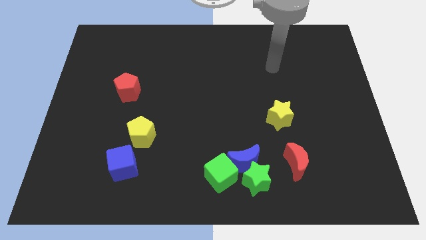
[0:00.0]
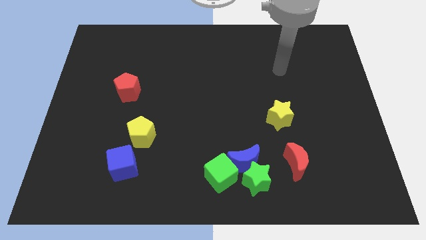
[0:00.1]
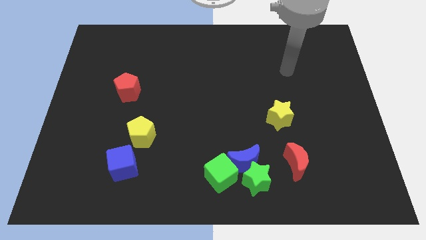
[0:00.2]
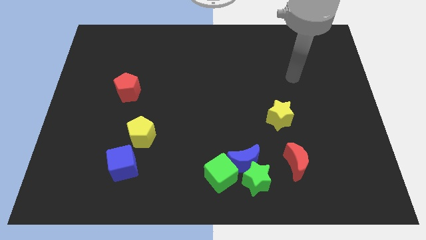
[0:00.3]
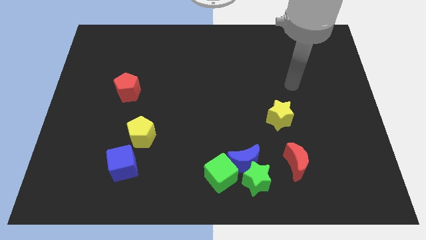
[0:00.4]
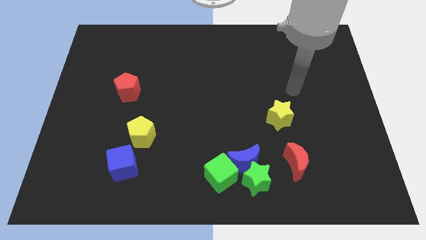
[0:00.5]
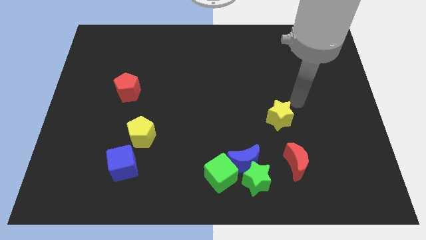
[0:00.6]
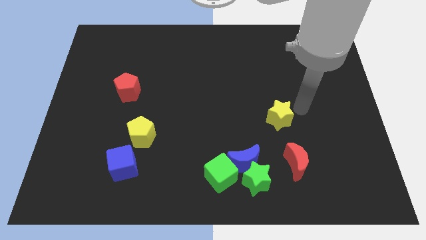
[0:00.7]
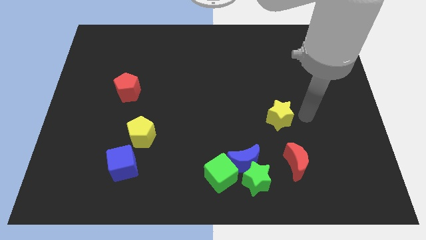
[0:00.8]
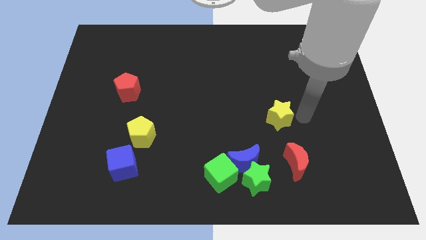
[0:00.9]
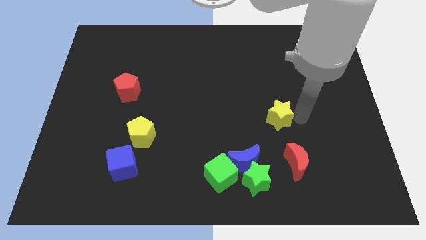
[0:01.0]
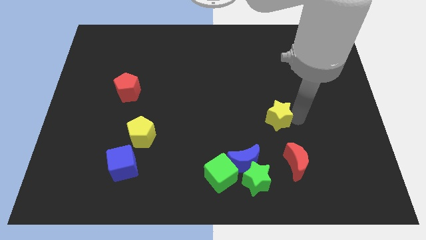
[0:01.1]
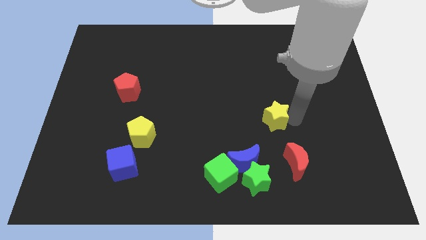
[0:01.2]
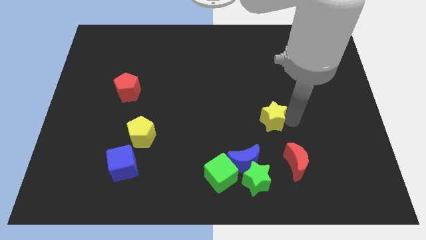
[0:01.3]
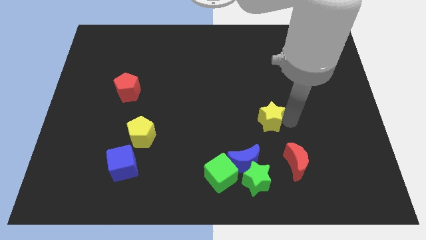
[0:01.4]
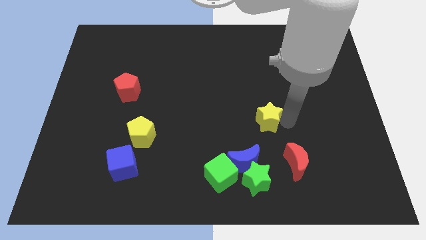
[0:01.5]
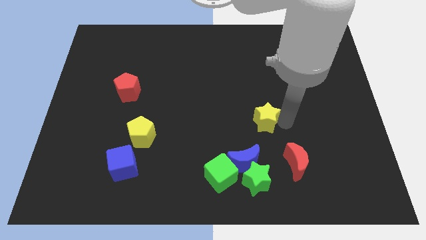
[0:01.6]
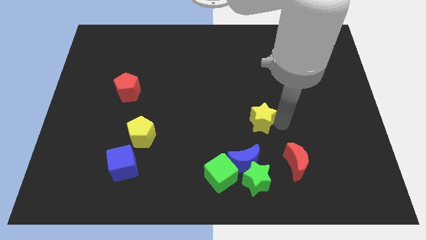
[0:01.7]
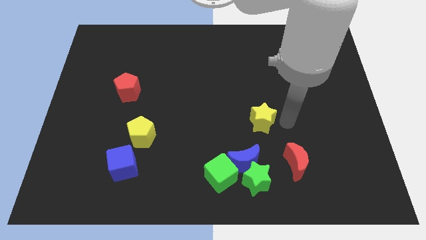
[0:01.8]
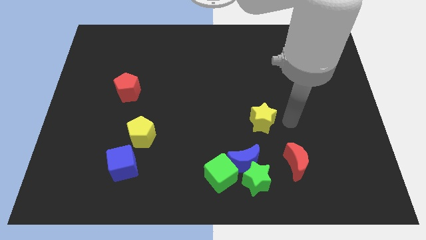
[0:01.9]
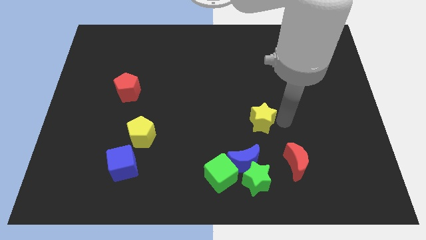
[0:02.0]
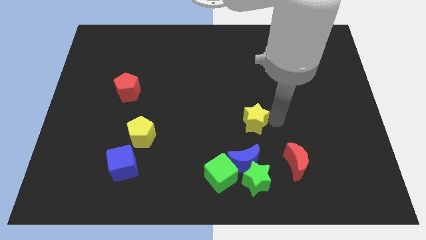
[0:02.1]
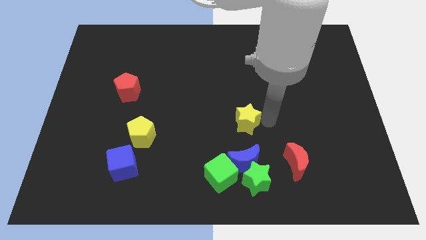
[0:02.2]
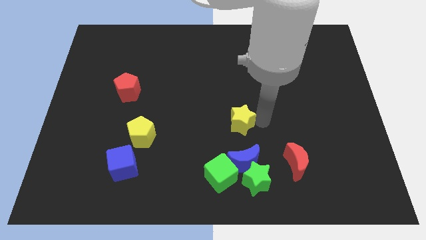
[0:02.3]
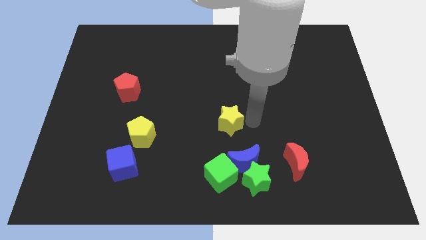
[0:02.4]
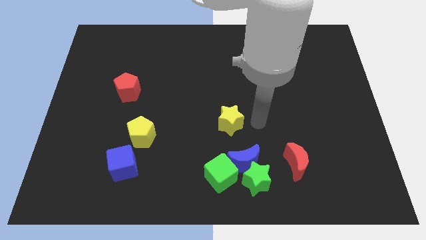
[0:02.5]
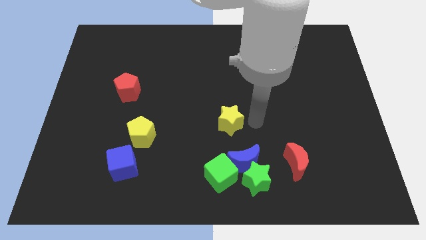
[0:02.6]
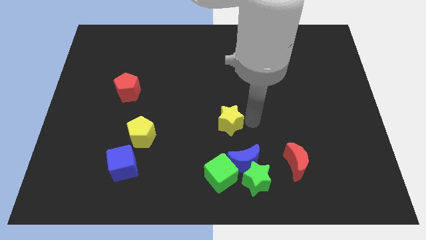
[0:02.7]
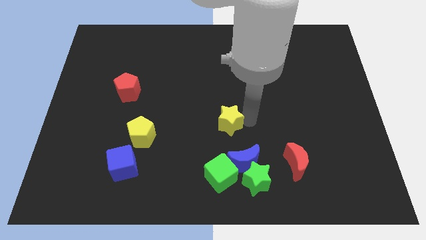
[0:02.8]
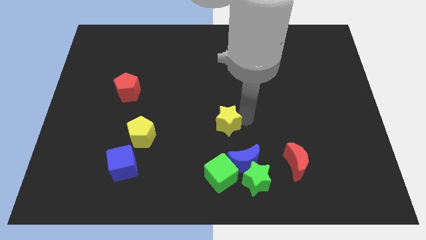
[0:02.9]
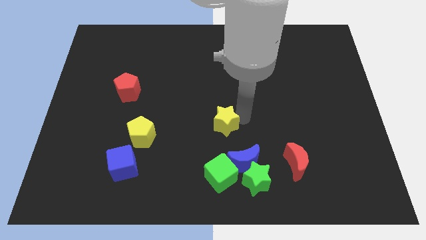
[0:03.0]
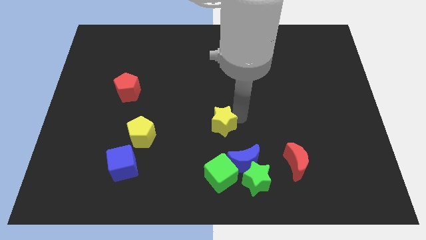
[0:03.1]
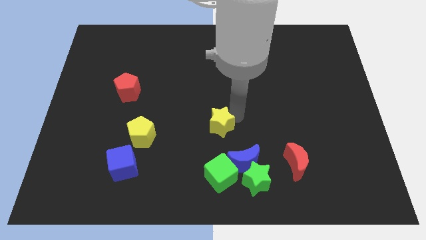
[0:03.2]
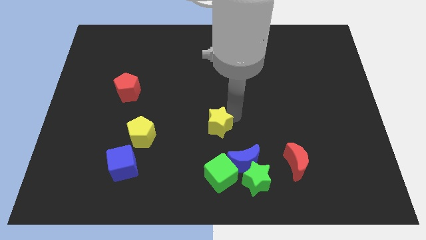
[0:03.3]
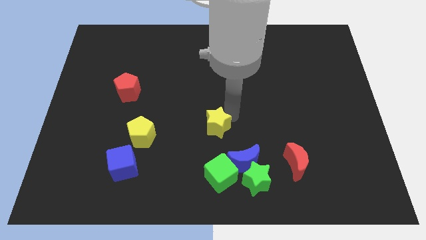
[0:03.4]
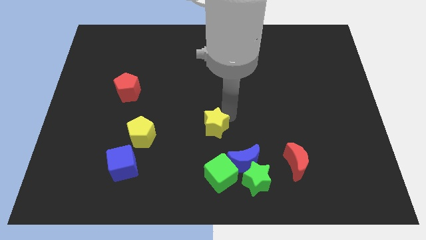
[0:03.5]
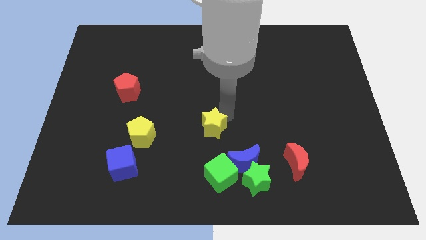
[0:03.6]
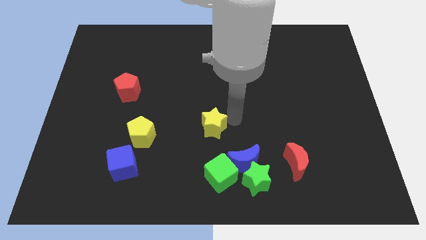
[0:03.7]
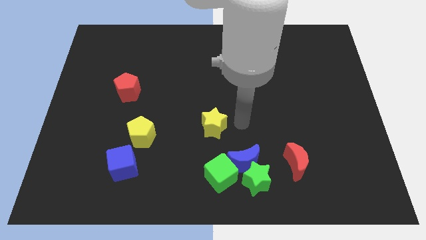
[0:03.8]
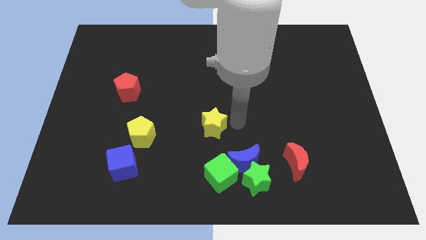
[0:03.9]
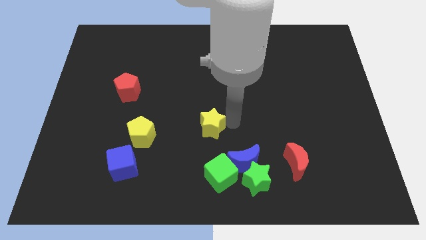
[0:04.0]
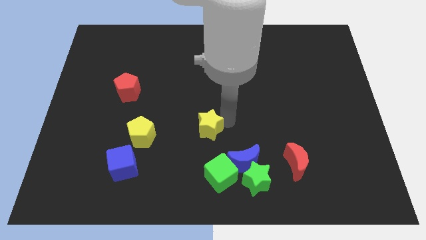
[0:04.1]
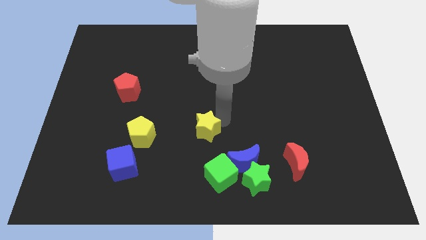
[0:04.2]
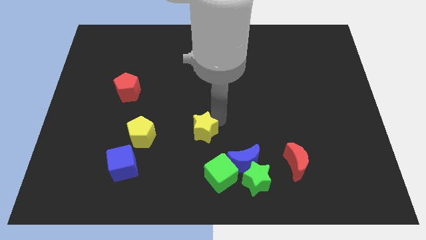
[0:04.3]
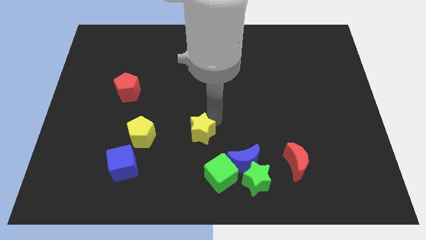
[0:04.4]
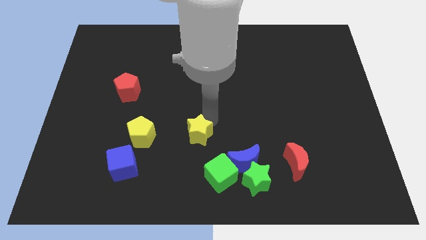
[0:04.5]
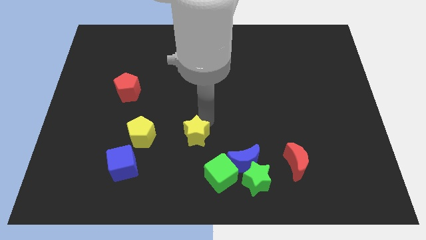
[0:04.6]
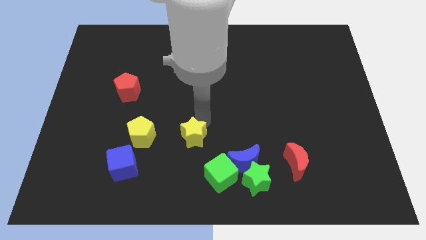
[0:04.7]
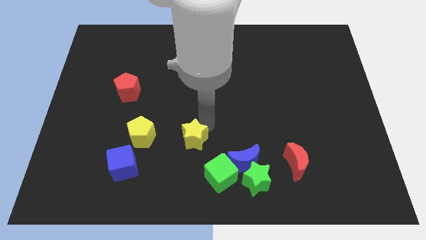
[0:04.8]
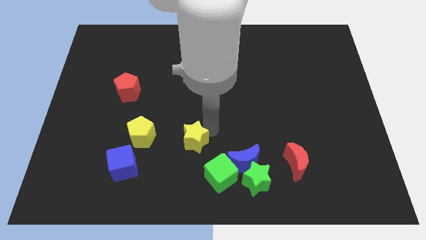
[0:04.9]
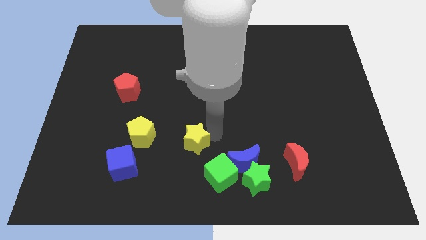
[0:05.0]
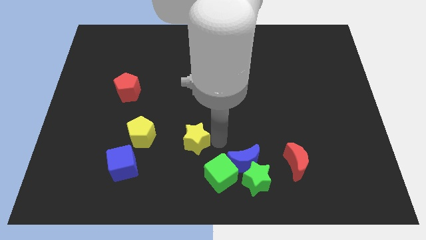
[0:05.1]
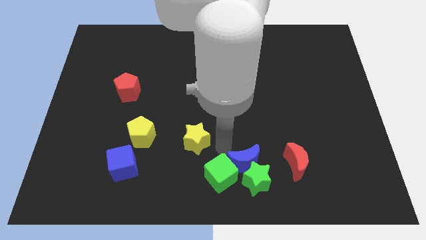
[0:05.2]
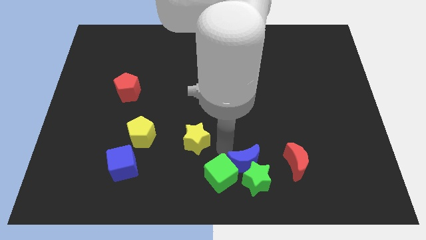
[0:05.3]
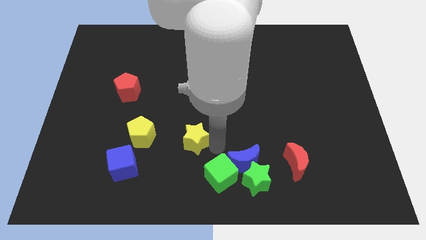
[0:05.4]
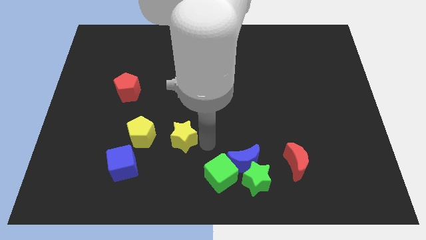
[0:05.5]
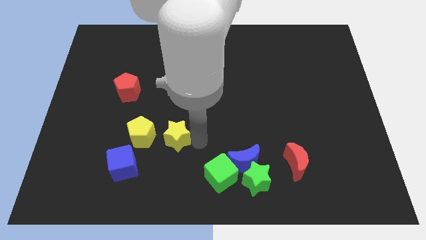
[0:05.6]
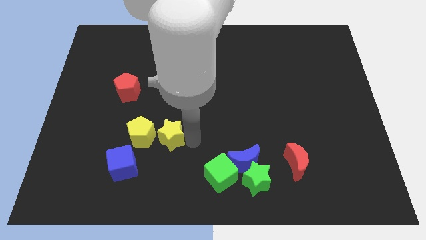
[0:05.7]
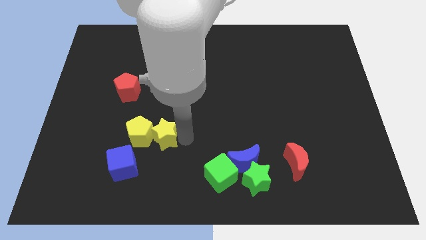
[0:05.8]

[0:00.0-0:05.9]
slide the yellow star close to the yellow pentagon
